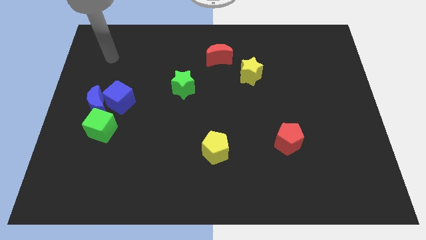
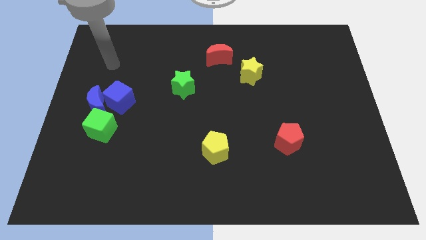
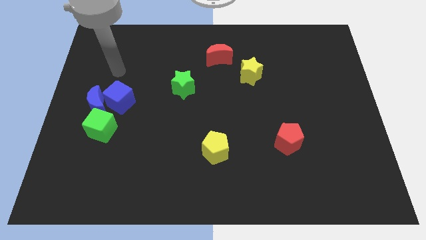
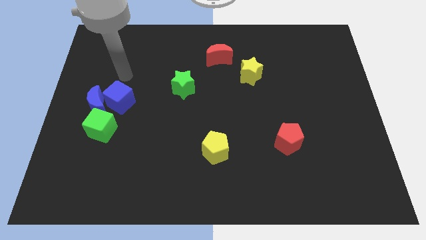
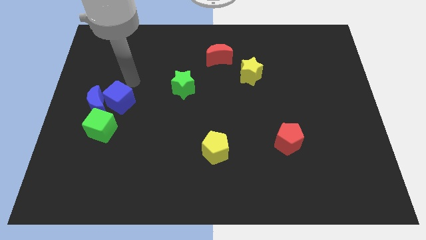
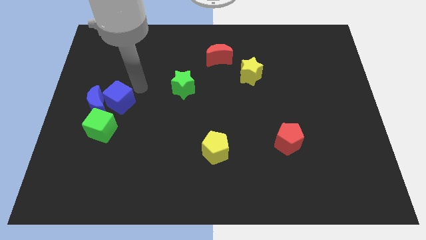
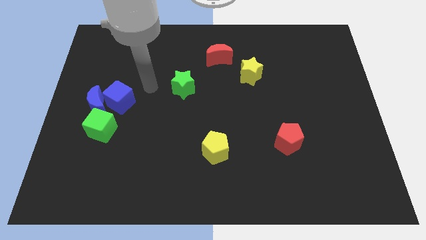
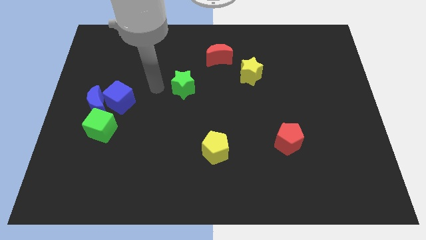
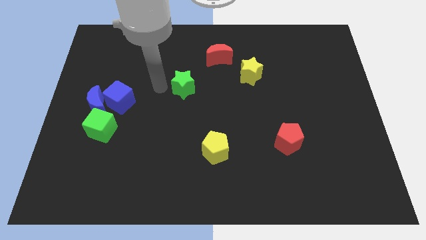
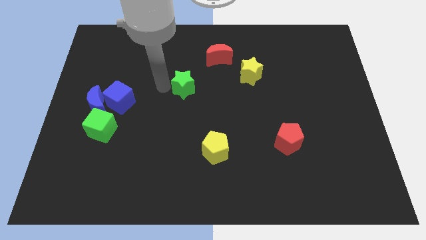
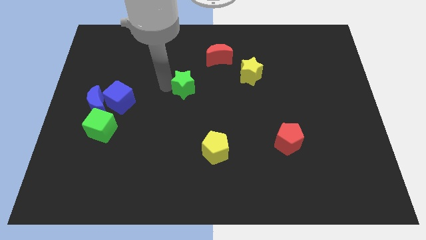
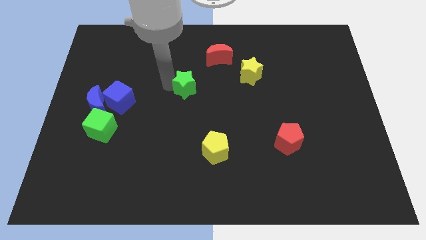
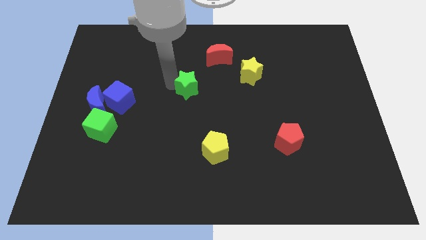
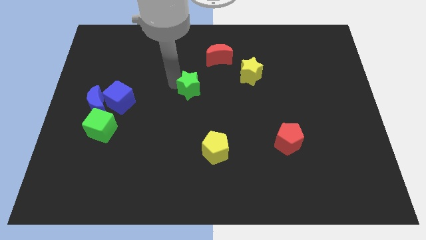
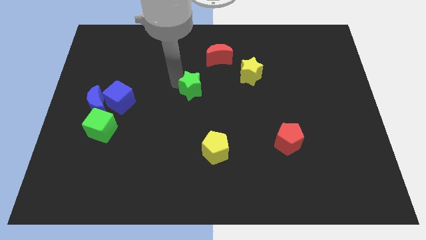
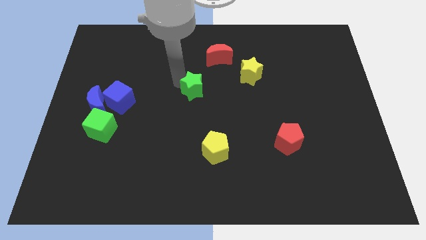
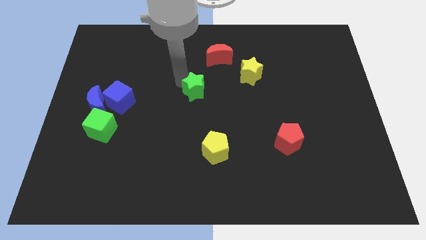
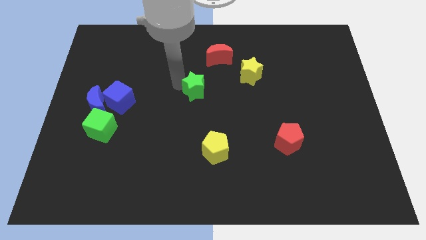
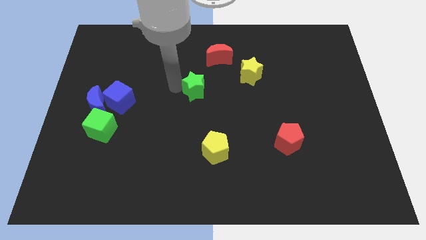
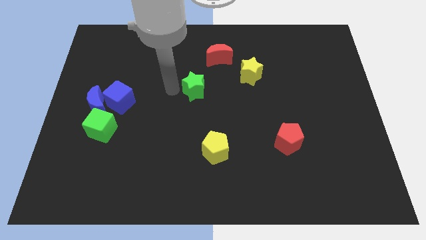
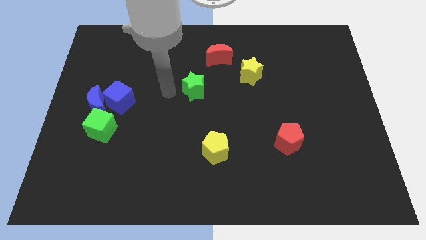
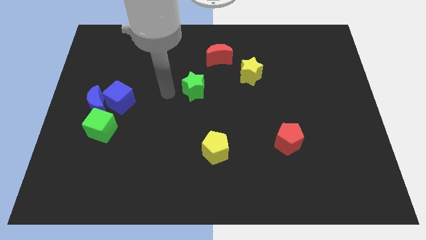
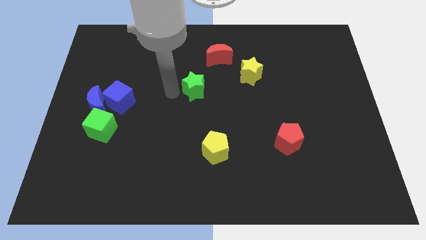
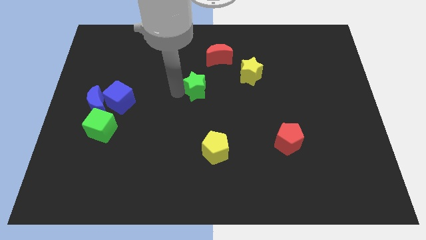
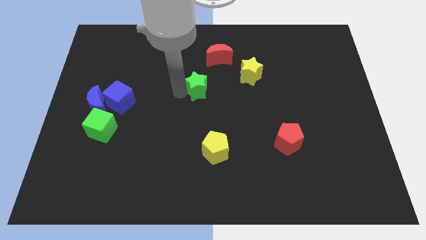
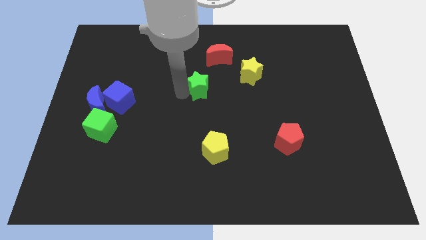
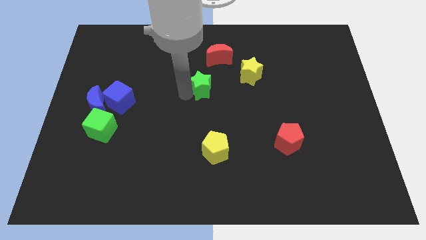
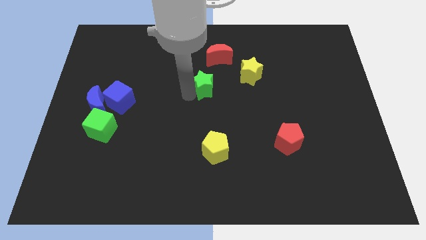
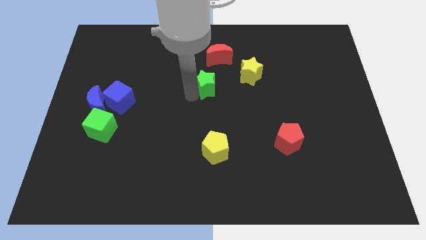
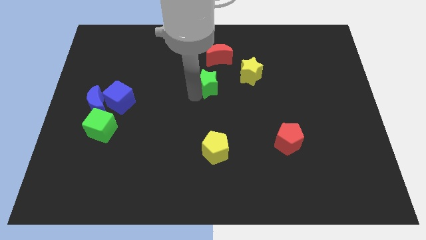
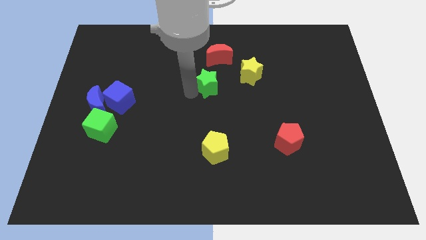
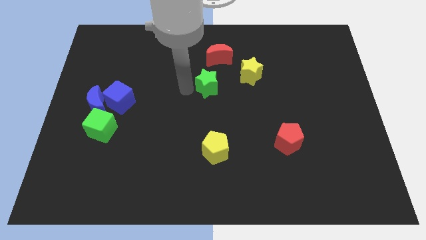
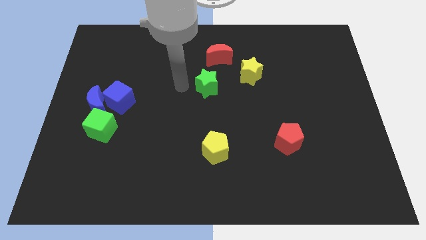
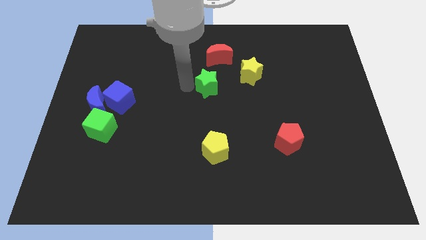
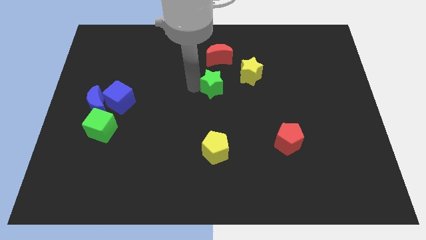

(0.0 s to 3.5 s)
push the green star a bit right

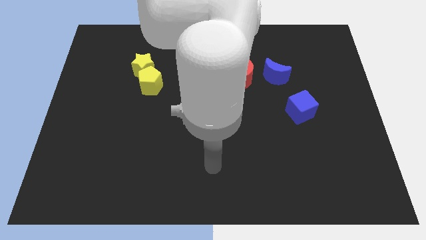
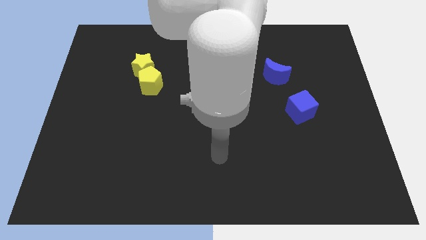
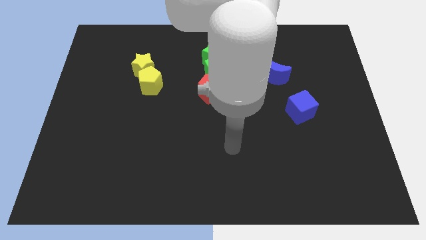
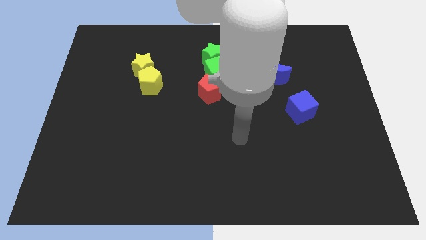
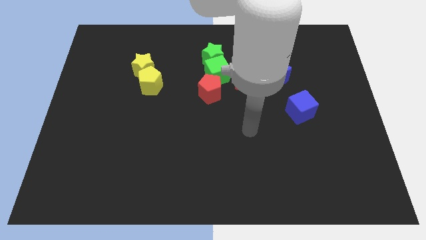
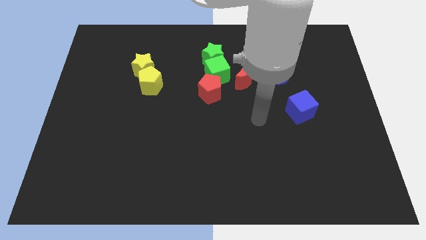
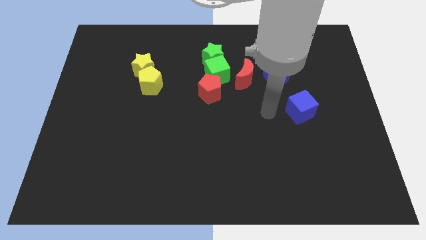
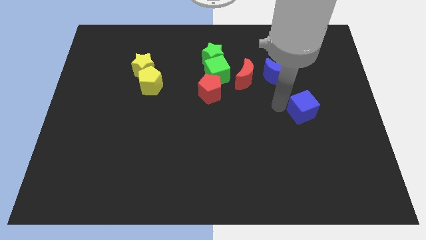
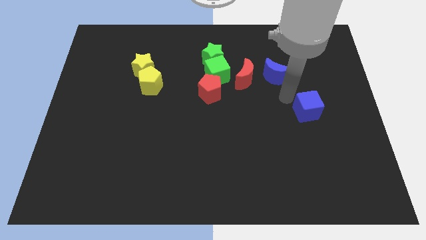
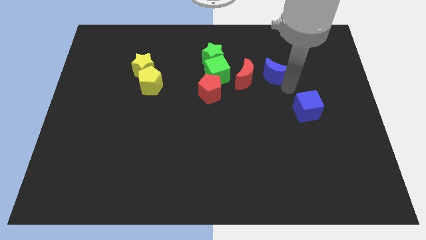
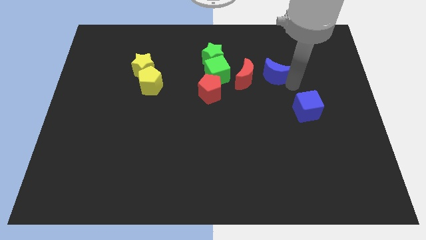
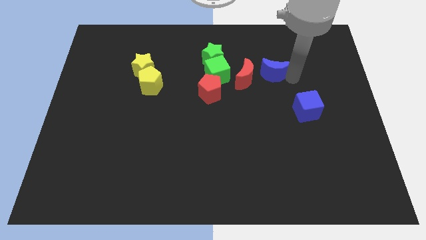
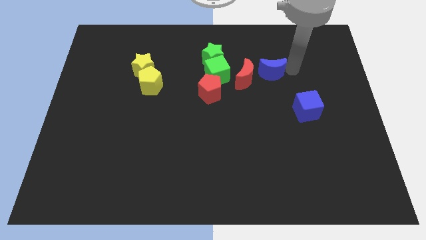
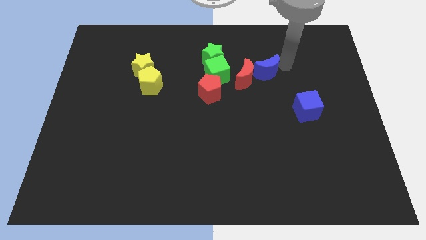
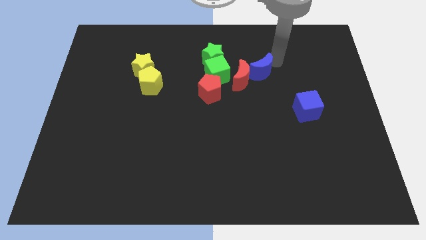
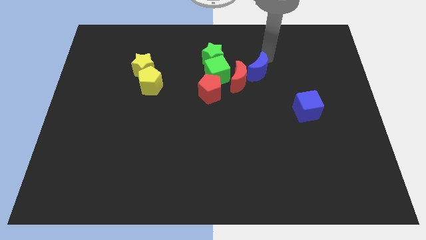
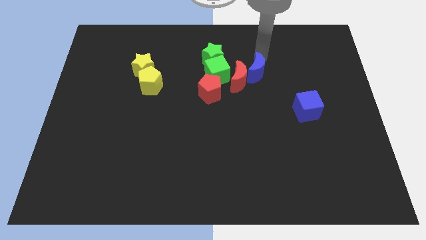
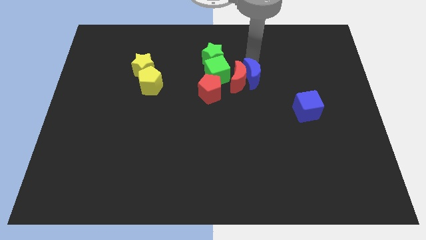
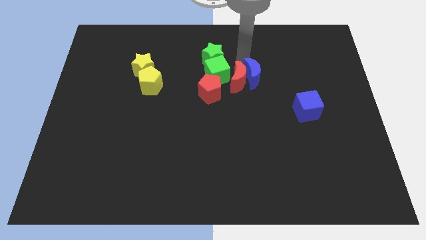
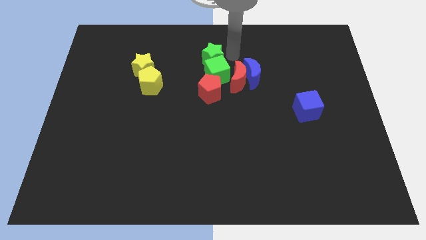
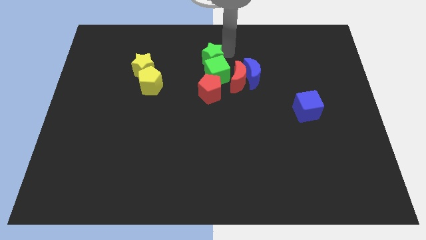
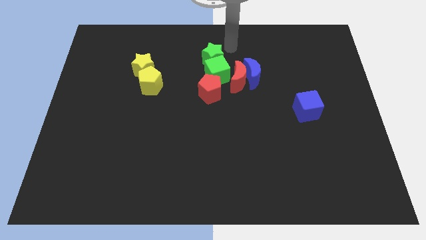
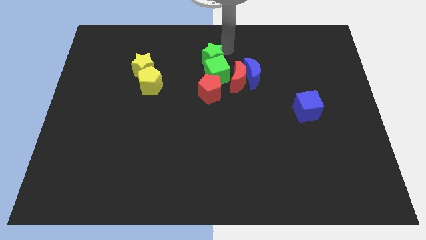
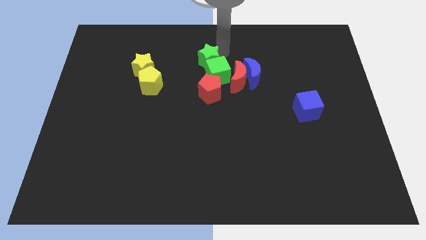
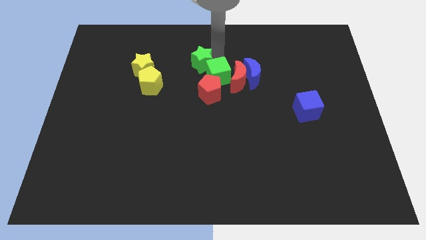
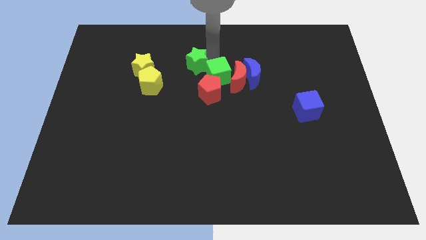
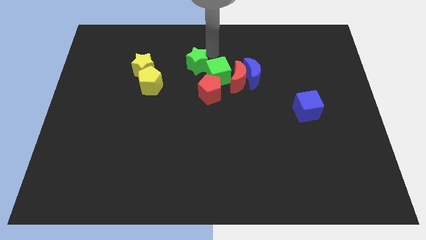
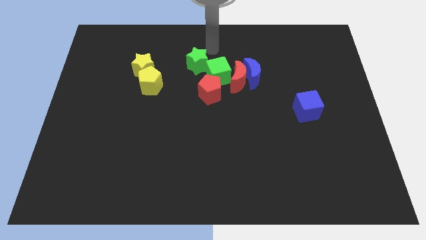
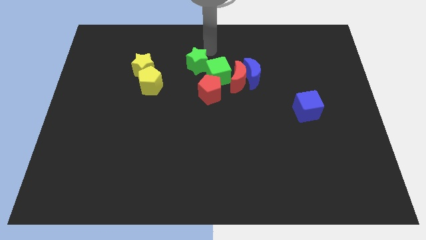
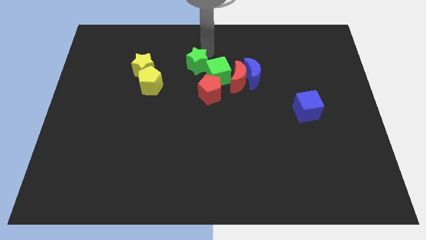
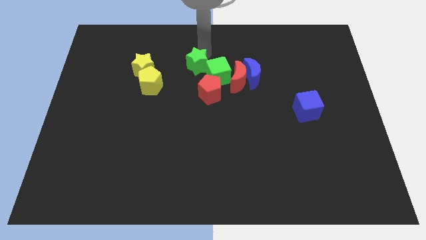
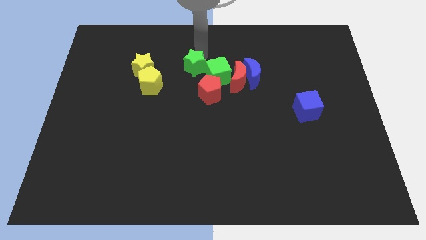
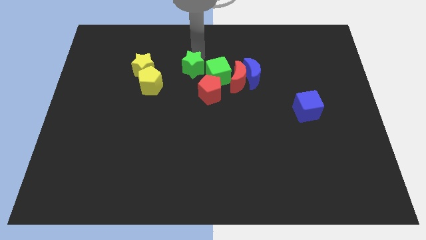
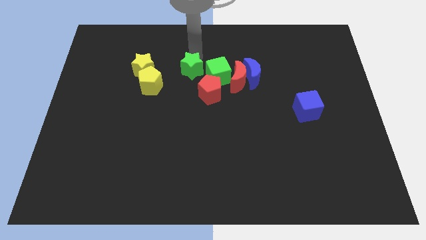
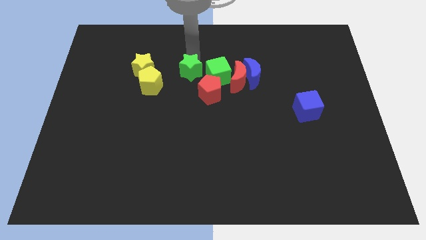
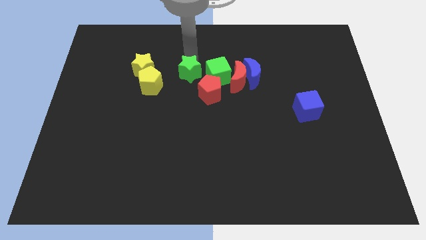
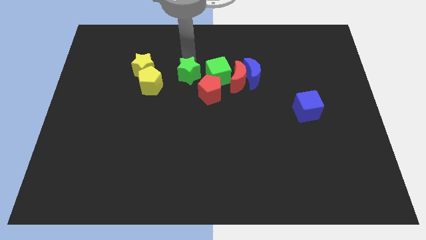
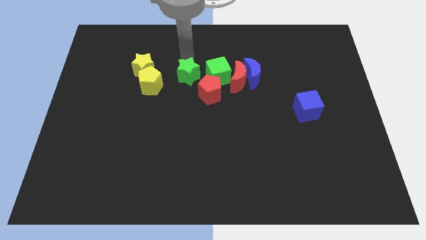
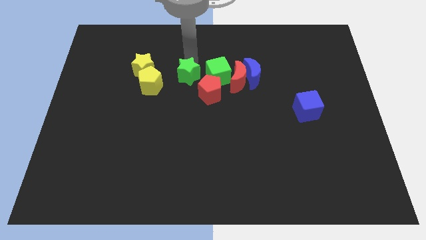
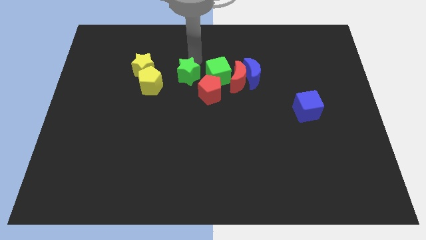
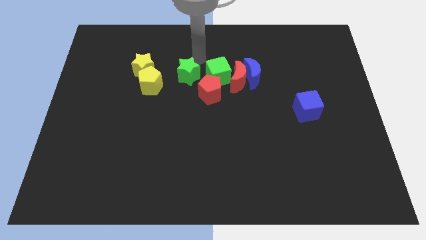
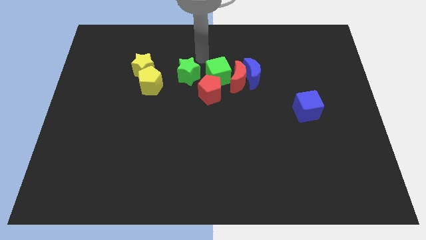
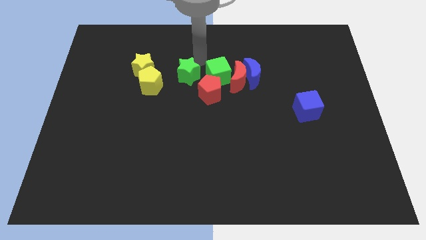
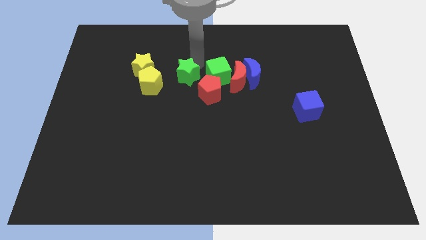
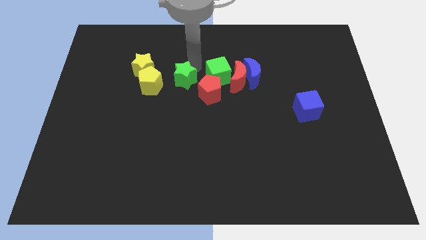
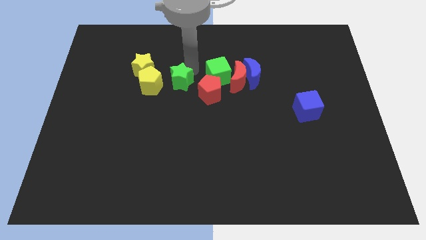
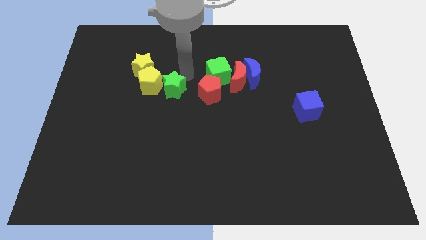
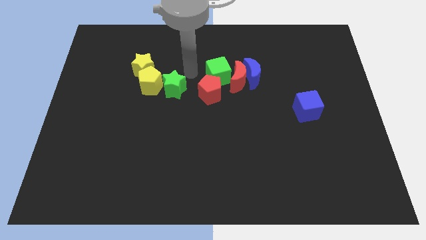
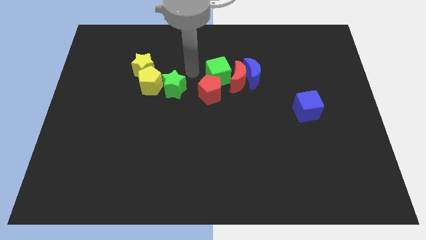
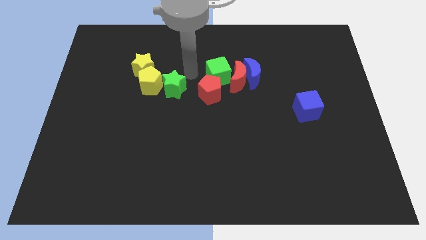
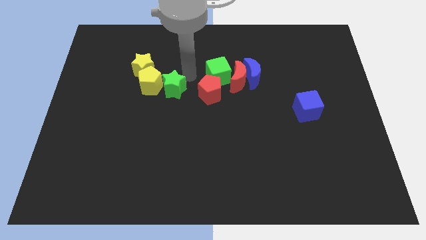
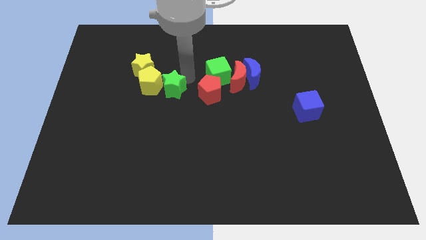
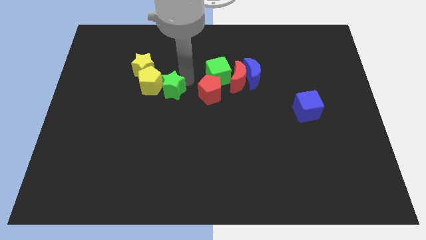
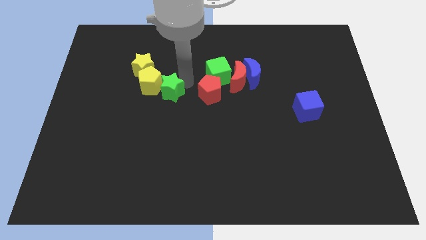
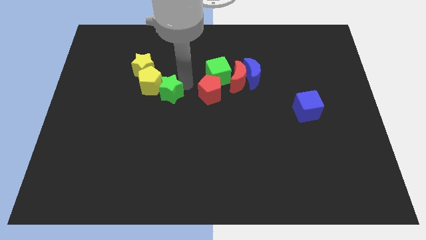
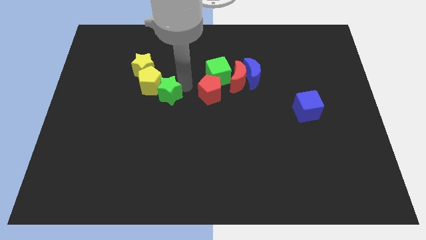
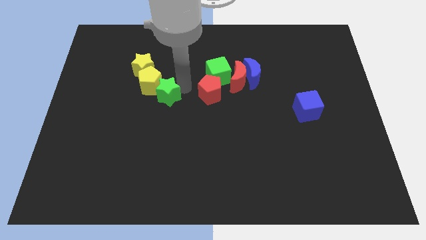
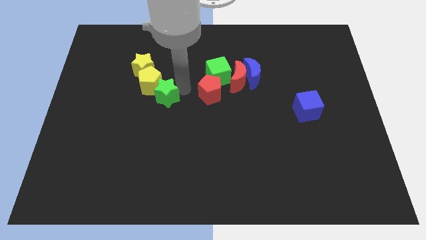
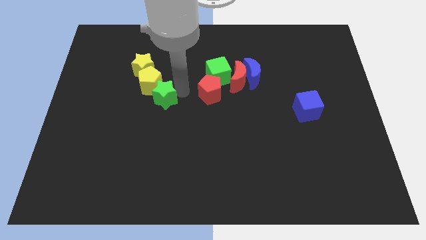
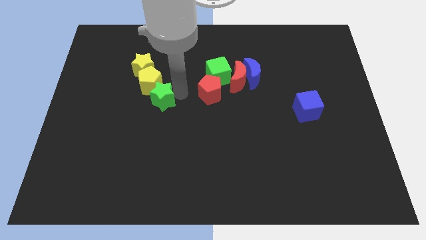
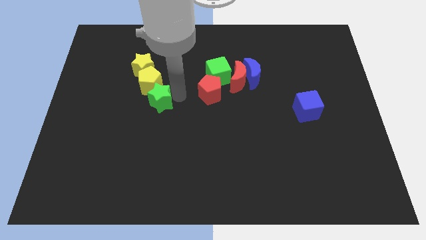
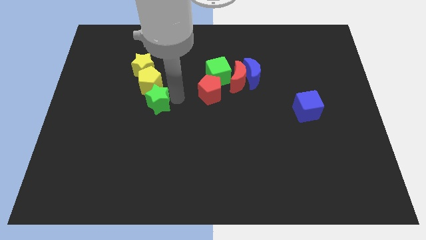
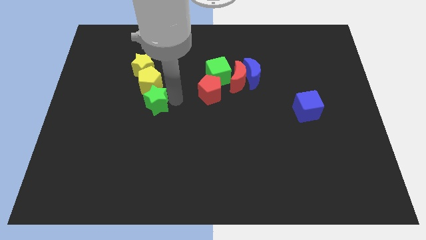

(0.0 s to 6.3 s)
slide the green star down and then to the left
